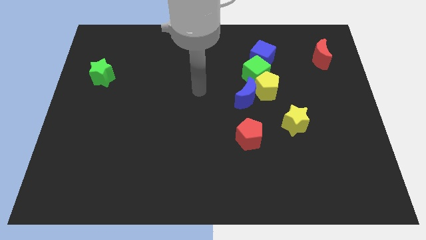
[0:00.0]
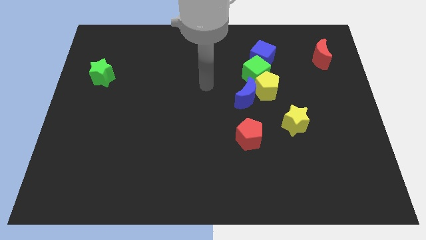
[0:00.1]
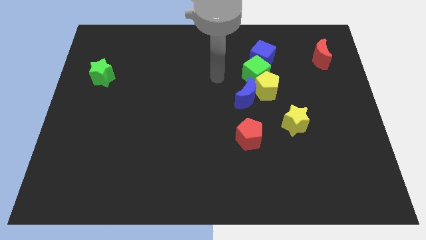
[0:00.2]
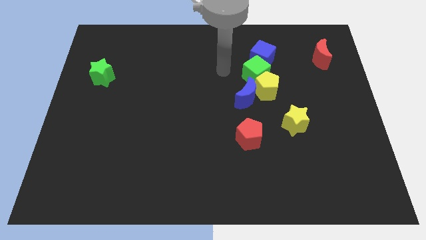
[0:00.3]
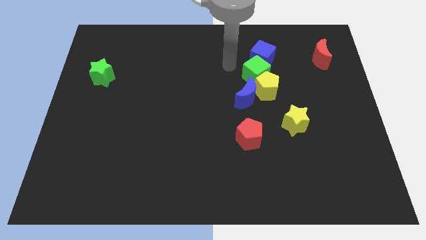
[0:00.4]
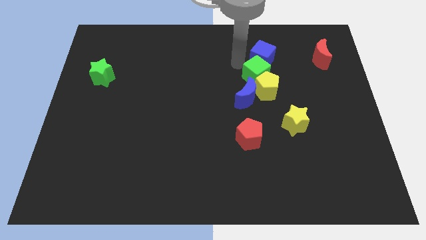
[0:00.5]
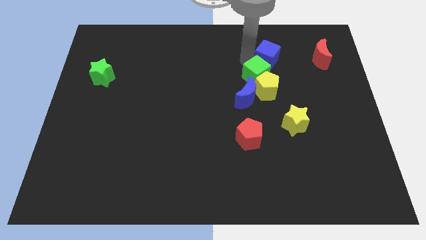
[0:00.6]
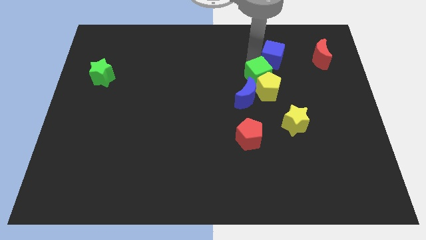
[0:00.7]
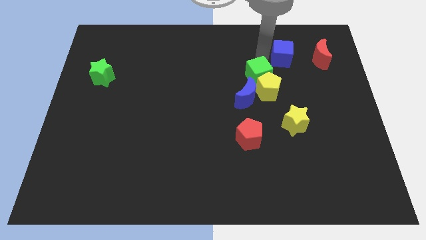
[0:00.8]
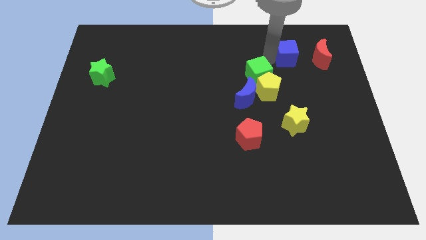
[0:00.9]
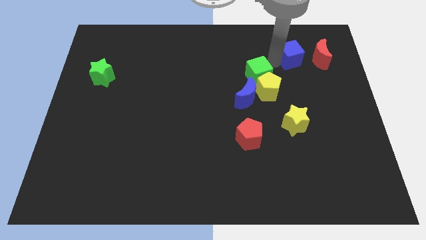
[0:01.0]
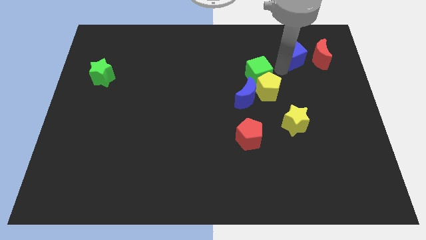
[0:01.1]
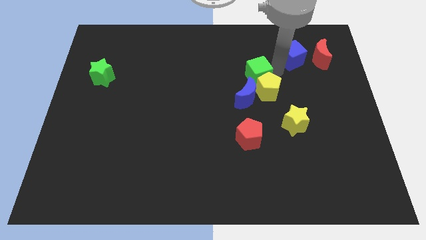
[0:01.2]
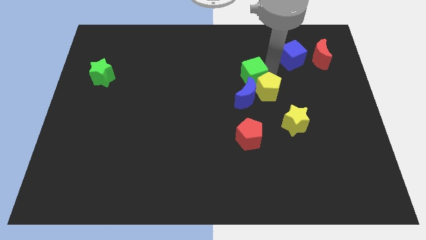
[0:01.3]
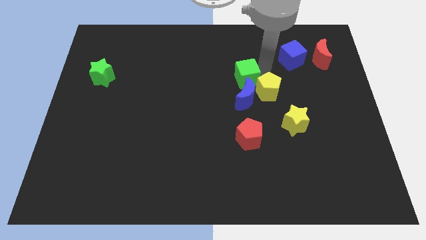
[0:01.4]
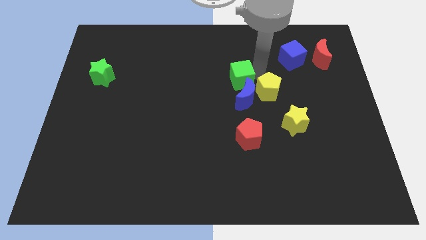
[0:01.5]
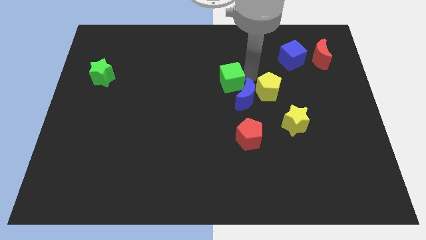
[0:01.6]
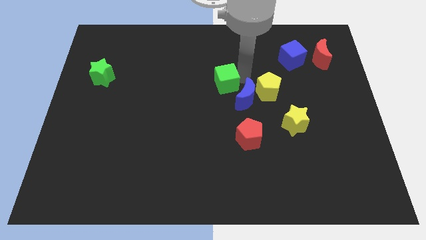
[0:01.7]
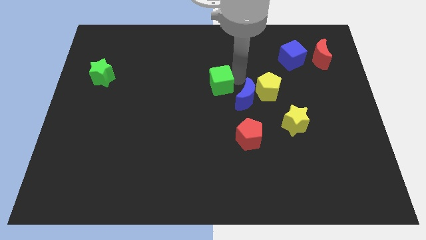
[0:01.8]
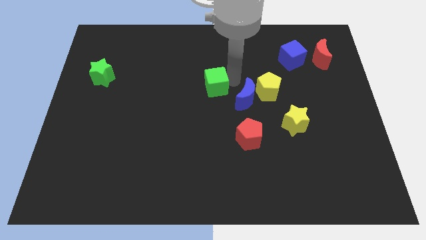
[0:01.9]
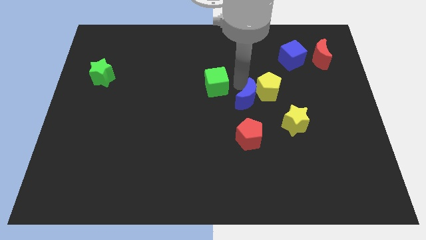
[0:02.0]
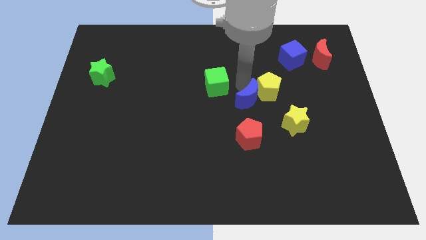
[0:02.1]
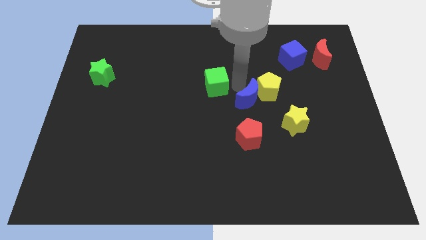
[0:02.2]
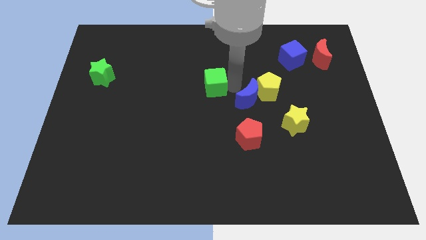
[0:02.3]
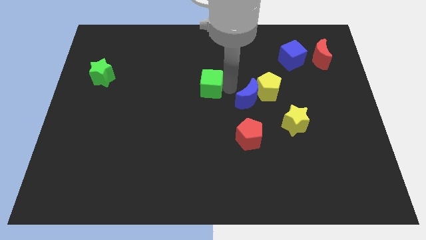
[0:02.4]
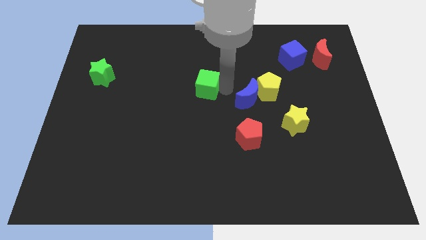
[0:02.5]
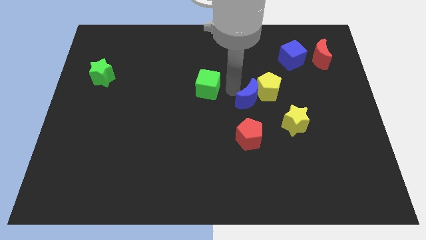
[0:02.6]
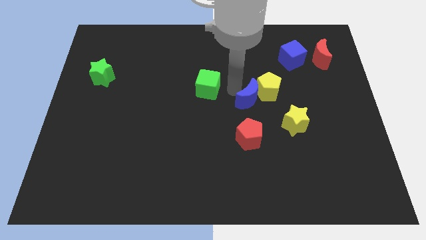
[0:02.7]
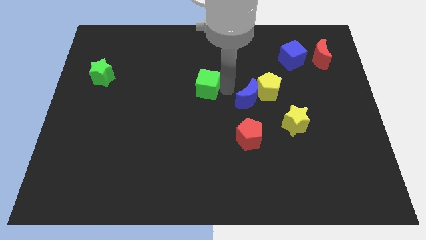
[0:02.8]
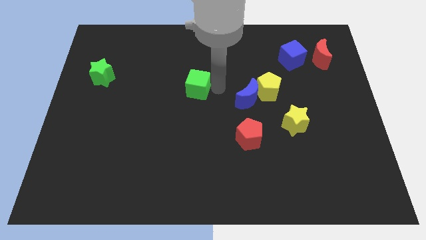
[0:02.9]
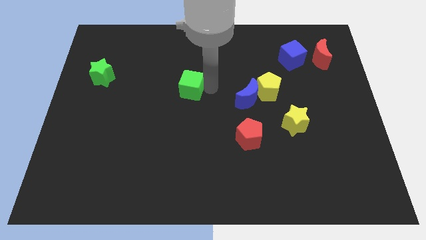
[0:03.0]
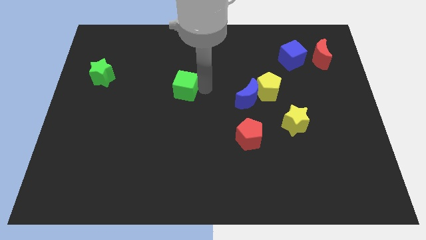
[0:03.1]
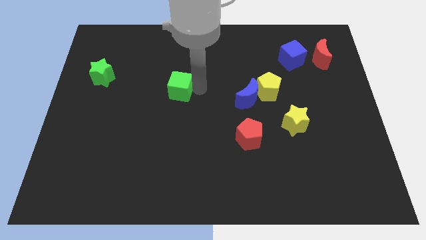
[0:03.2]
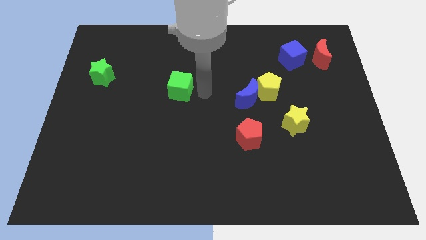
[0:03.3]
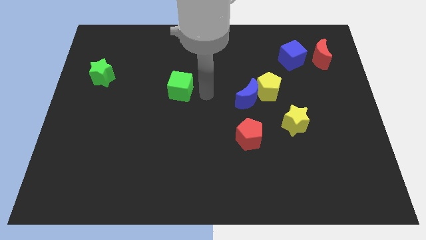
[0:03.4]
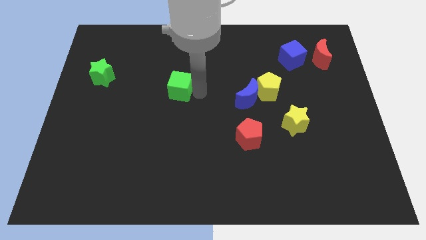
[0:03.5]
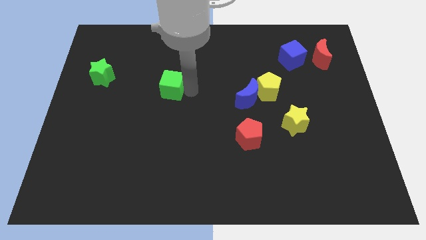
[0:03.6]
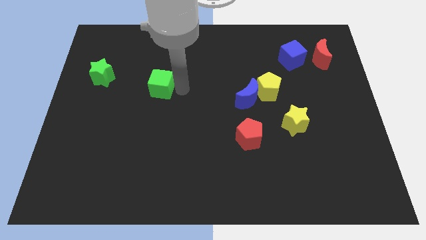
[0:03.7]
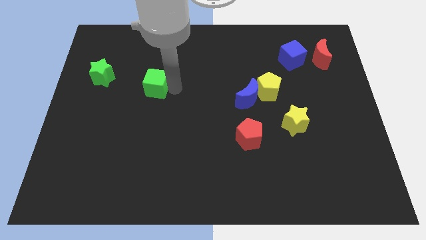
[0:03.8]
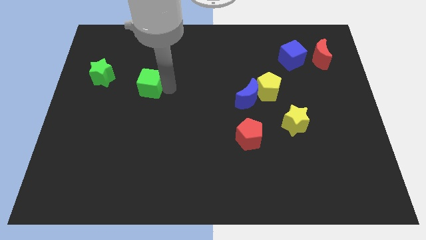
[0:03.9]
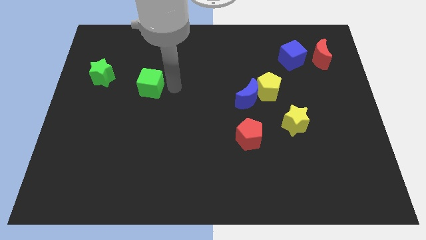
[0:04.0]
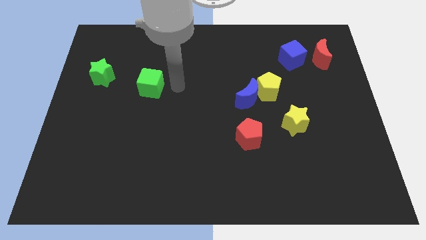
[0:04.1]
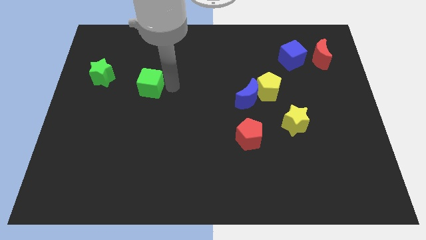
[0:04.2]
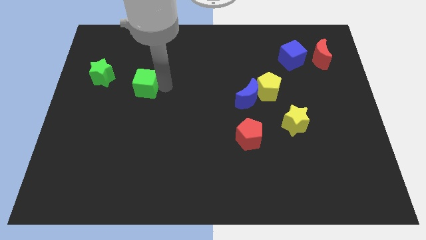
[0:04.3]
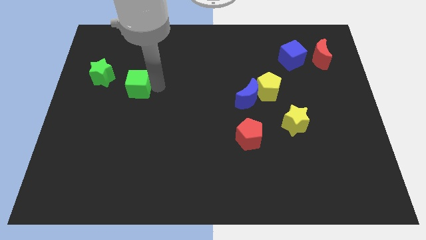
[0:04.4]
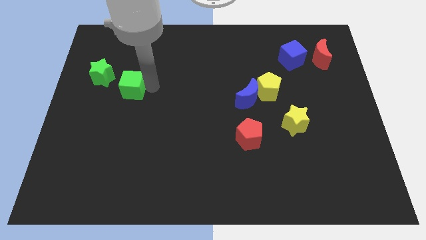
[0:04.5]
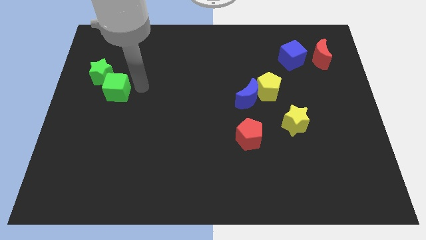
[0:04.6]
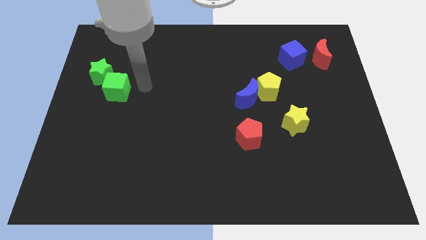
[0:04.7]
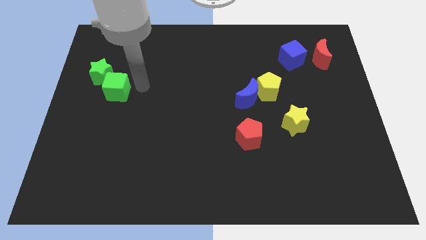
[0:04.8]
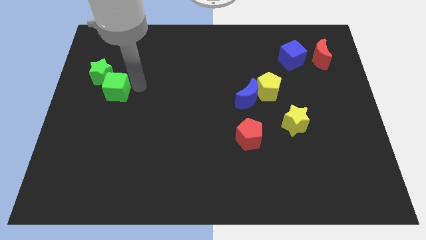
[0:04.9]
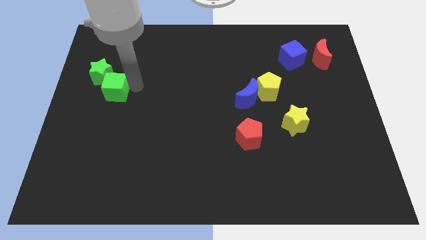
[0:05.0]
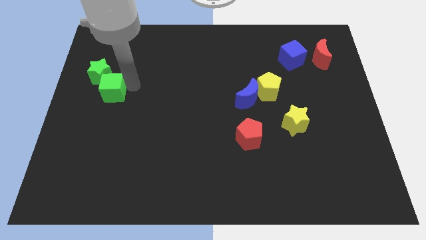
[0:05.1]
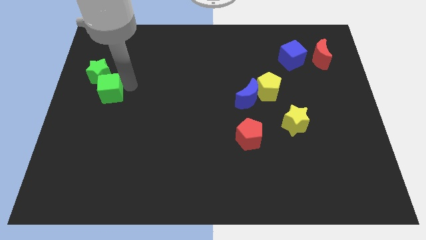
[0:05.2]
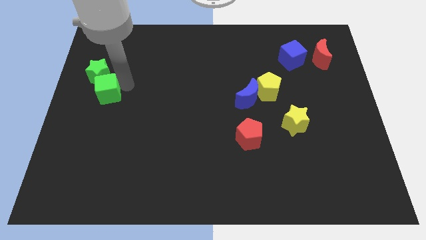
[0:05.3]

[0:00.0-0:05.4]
push the green cube to the center left

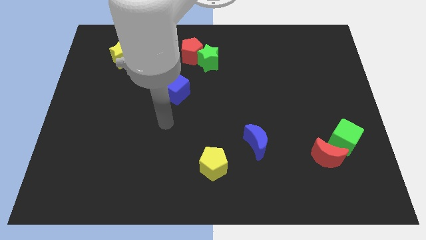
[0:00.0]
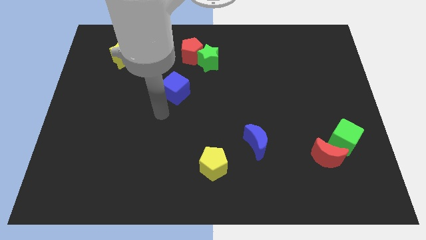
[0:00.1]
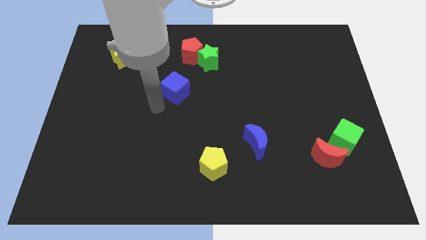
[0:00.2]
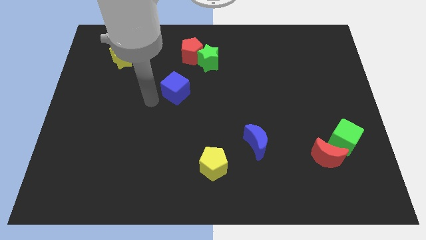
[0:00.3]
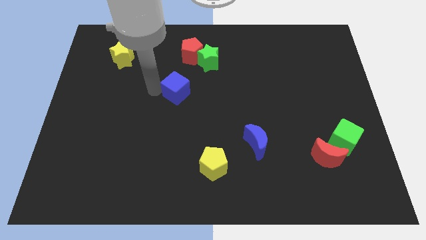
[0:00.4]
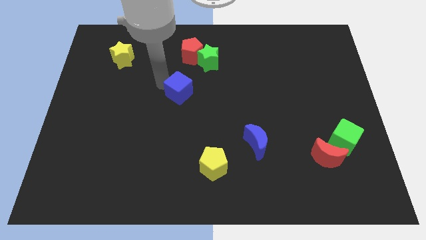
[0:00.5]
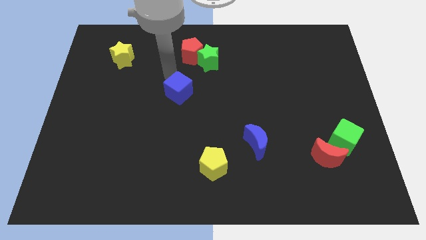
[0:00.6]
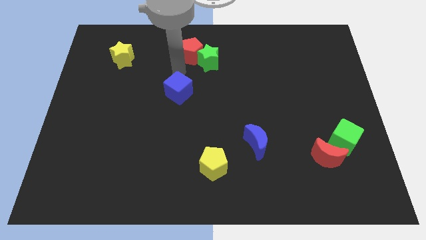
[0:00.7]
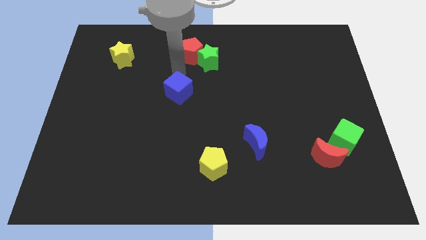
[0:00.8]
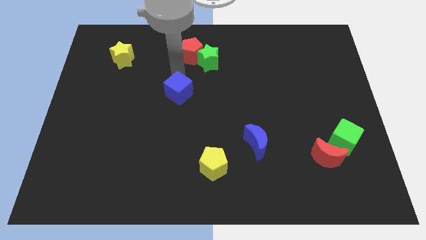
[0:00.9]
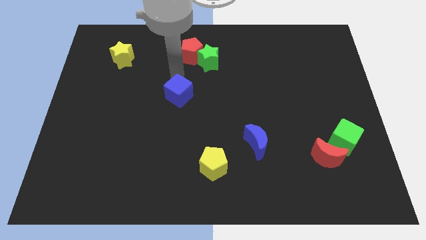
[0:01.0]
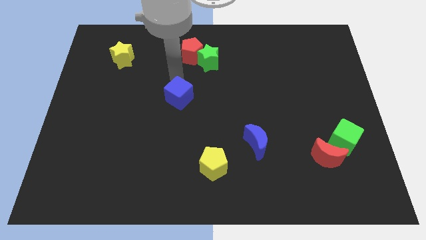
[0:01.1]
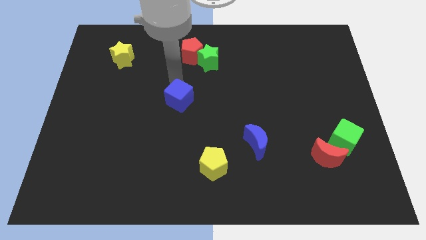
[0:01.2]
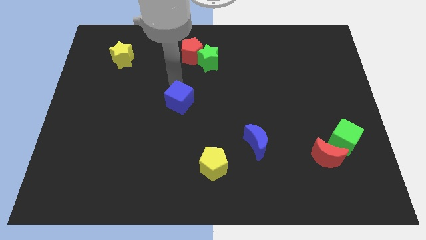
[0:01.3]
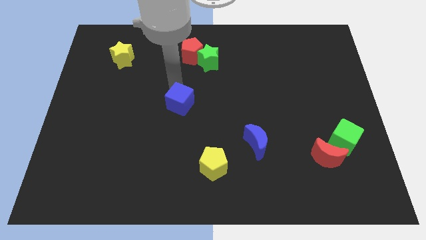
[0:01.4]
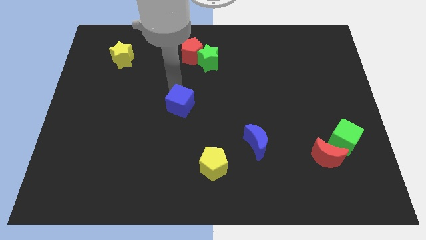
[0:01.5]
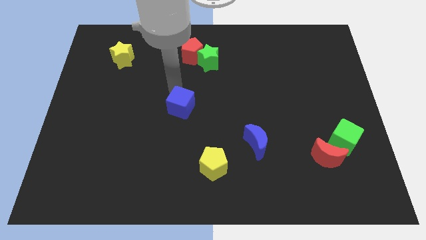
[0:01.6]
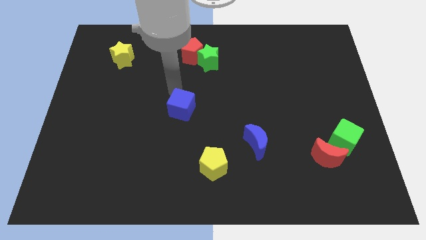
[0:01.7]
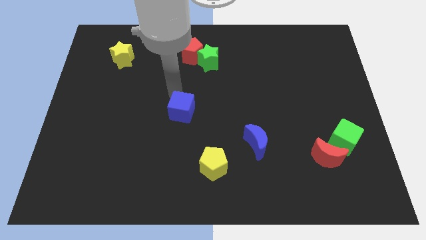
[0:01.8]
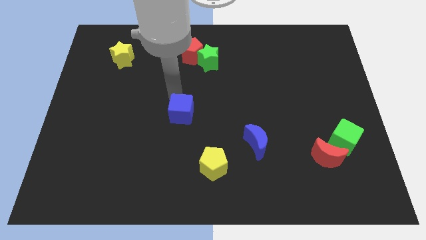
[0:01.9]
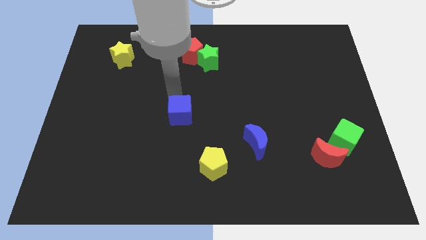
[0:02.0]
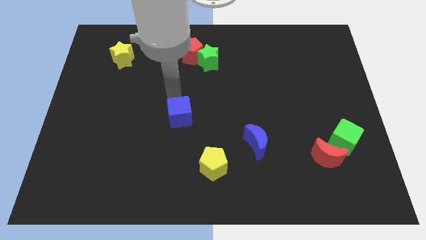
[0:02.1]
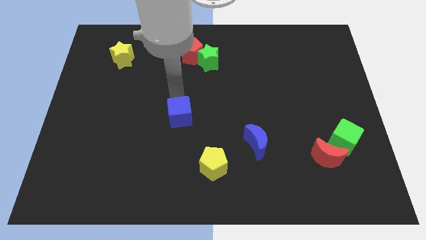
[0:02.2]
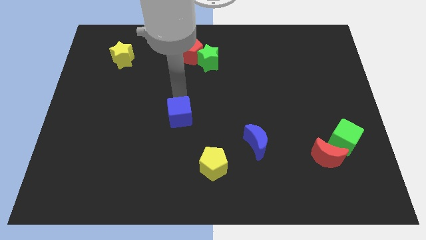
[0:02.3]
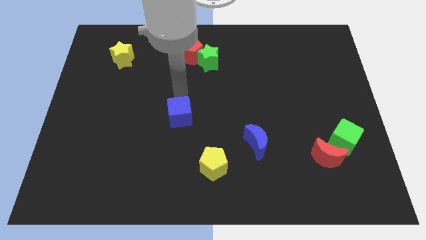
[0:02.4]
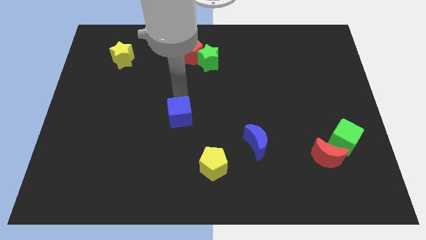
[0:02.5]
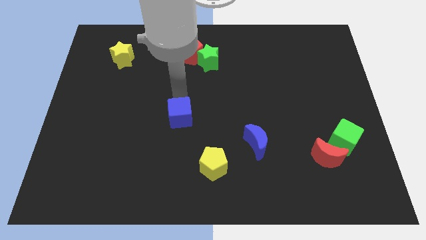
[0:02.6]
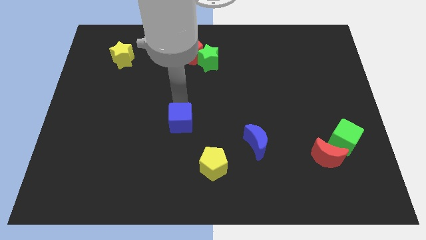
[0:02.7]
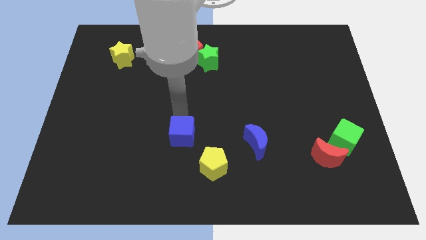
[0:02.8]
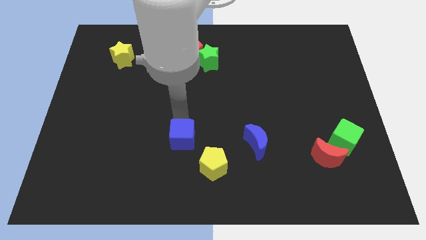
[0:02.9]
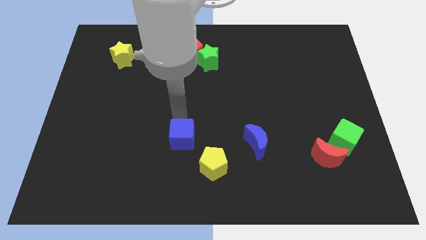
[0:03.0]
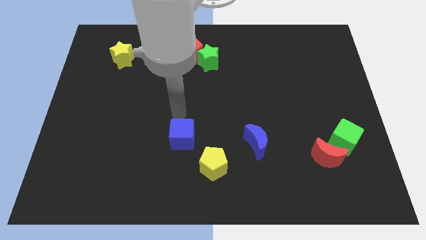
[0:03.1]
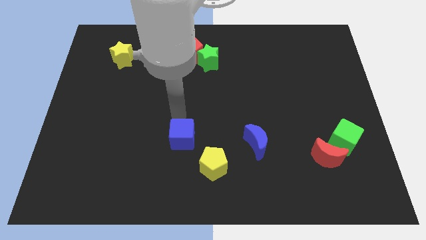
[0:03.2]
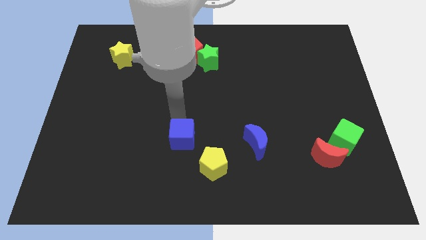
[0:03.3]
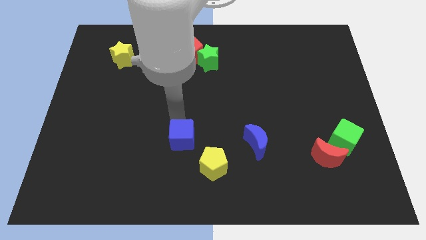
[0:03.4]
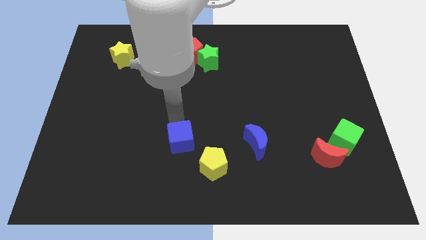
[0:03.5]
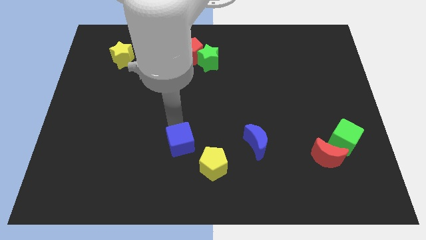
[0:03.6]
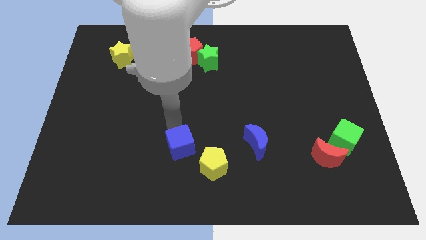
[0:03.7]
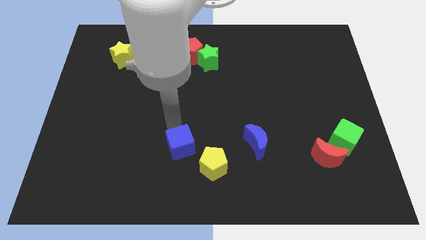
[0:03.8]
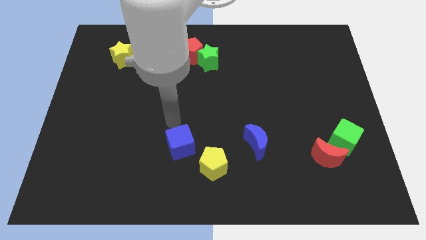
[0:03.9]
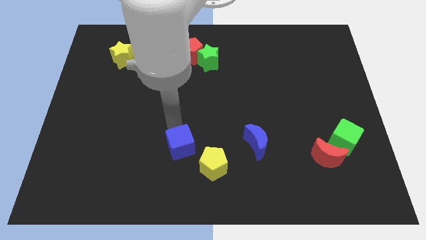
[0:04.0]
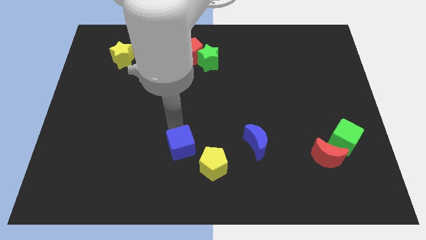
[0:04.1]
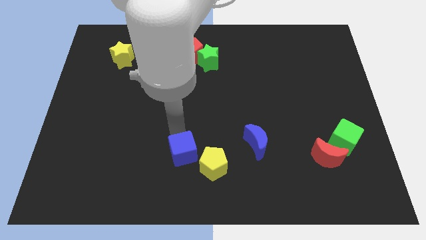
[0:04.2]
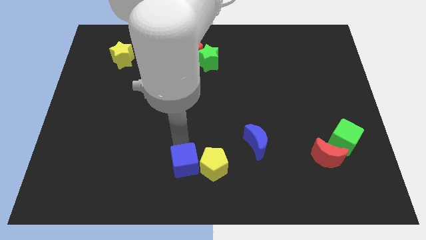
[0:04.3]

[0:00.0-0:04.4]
put the blue cube to the bottom side
